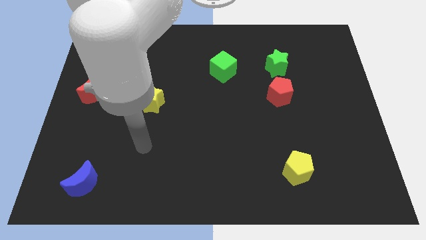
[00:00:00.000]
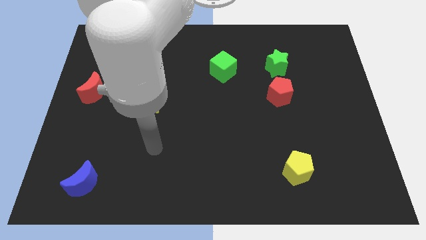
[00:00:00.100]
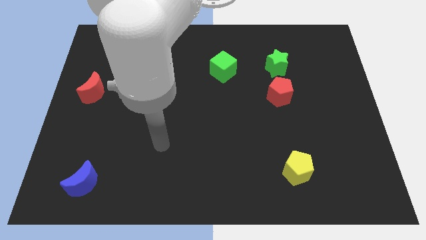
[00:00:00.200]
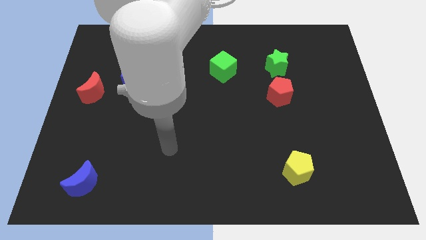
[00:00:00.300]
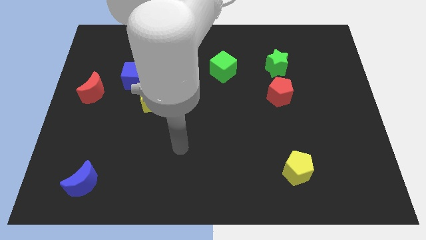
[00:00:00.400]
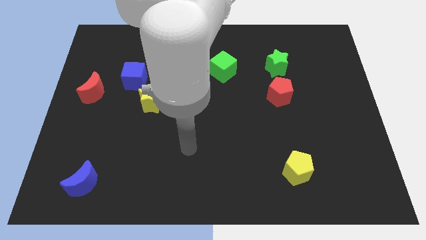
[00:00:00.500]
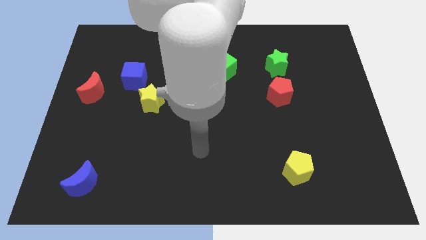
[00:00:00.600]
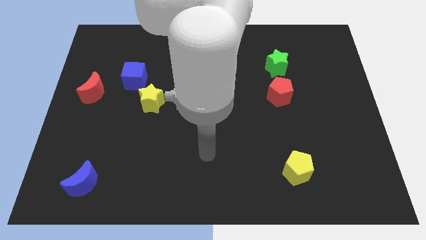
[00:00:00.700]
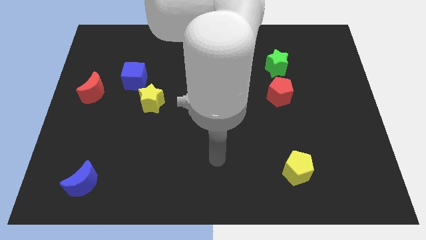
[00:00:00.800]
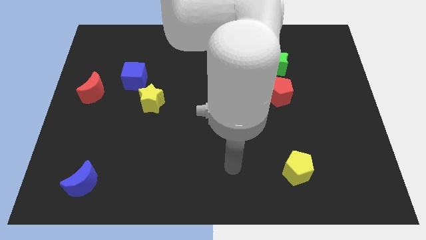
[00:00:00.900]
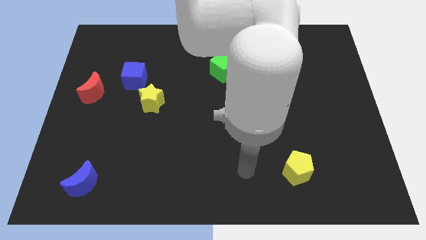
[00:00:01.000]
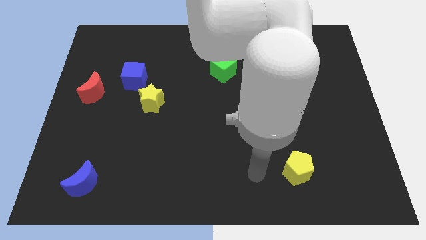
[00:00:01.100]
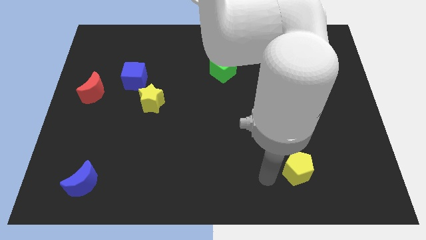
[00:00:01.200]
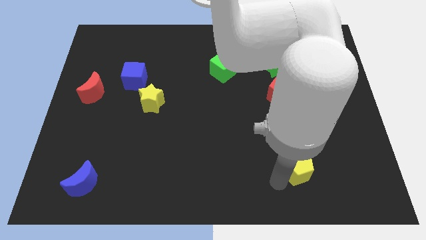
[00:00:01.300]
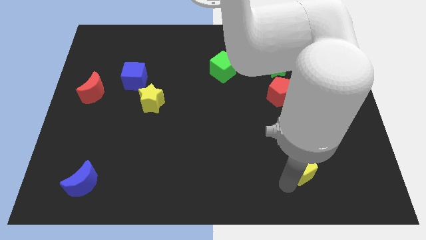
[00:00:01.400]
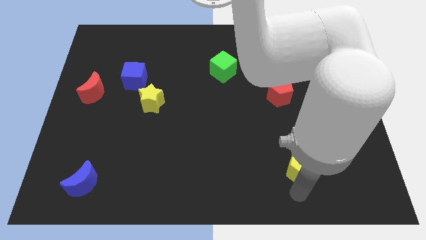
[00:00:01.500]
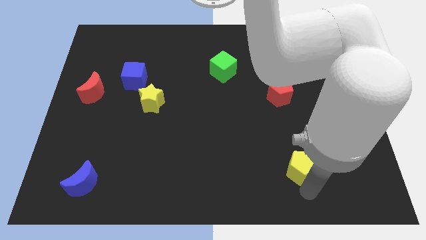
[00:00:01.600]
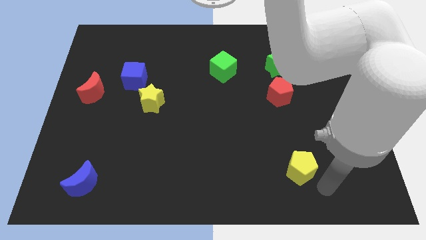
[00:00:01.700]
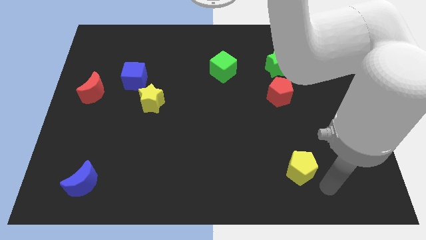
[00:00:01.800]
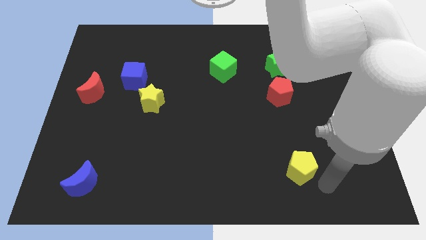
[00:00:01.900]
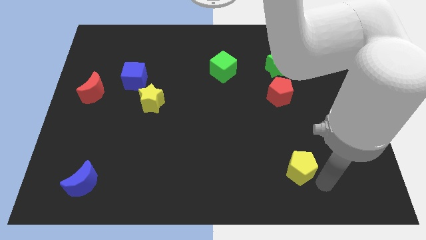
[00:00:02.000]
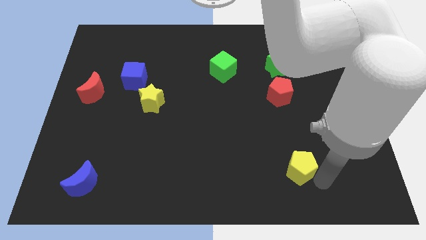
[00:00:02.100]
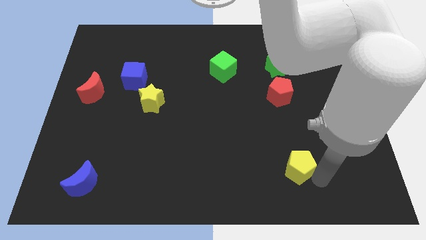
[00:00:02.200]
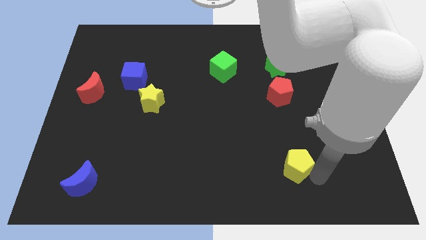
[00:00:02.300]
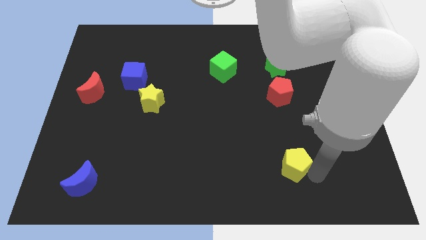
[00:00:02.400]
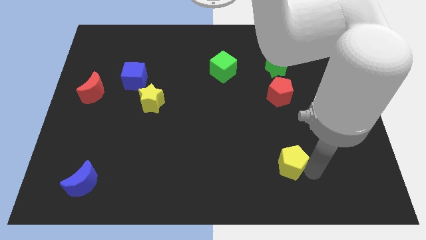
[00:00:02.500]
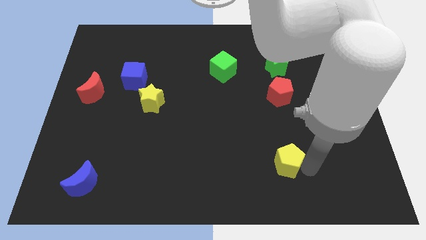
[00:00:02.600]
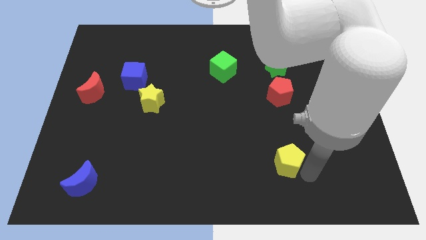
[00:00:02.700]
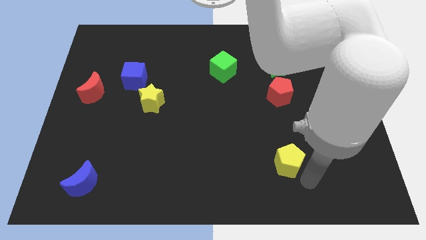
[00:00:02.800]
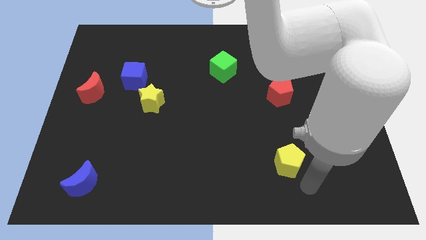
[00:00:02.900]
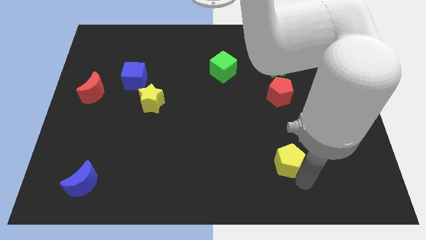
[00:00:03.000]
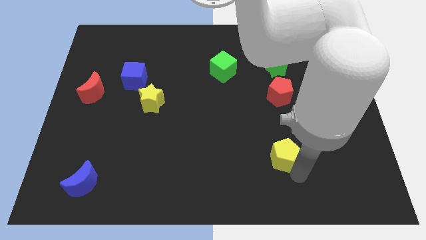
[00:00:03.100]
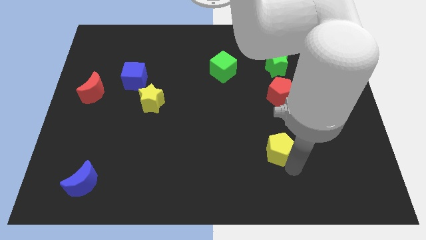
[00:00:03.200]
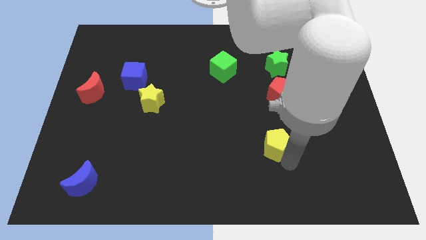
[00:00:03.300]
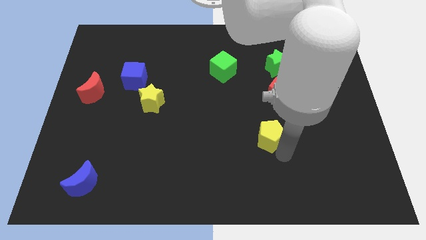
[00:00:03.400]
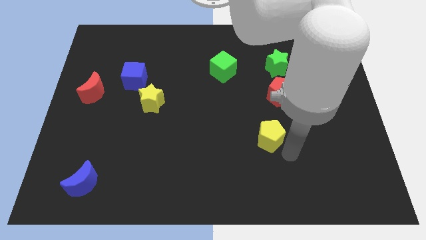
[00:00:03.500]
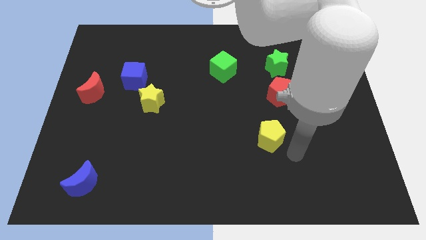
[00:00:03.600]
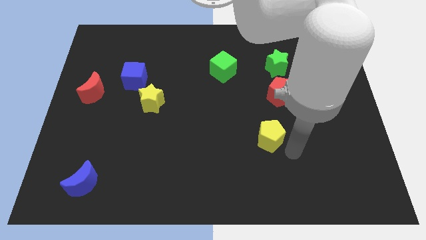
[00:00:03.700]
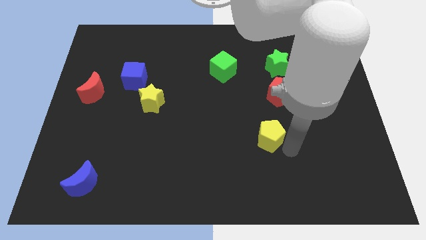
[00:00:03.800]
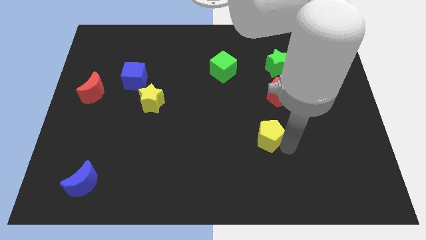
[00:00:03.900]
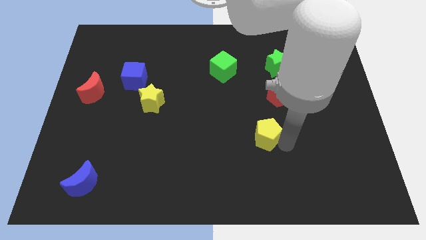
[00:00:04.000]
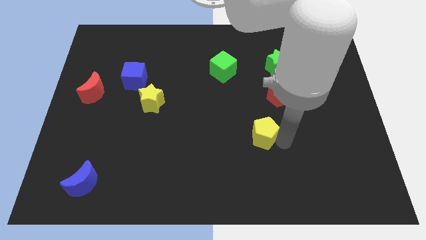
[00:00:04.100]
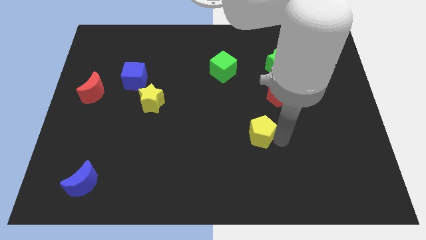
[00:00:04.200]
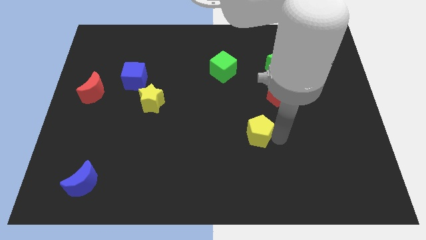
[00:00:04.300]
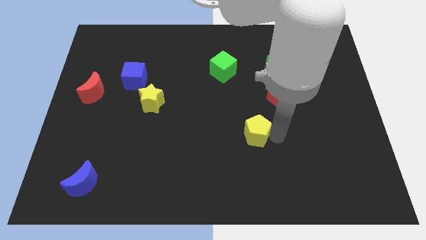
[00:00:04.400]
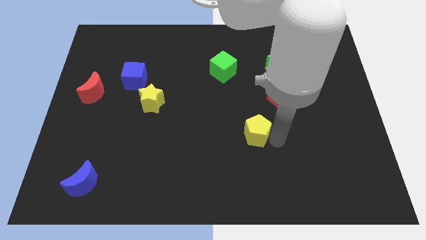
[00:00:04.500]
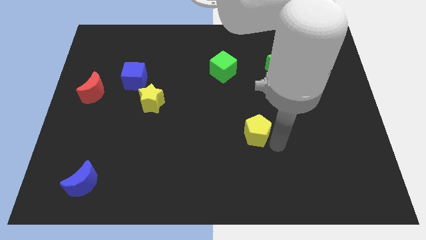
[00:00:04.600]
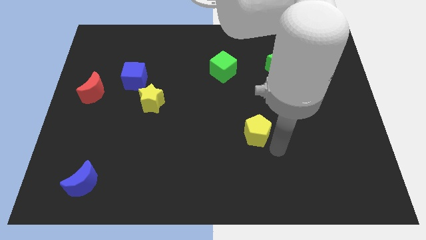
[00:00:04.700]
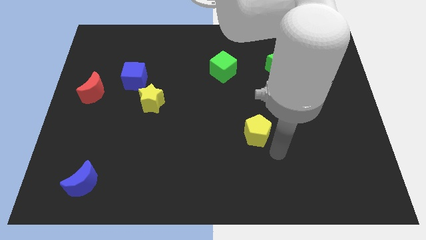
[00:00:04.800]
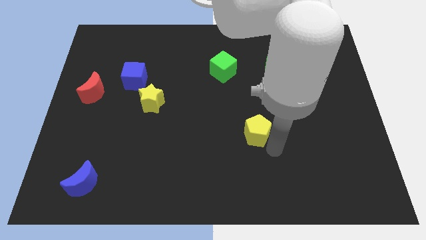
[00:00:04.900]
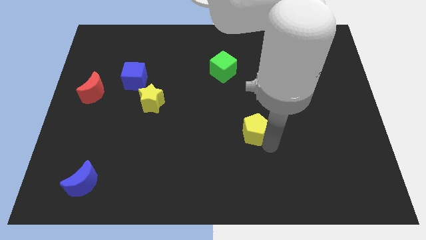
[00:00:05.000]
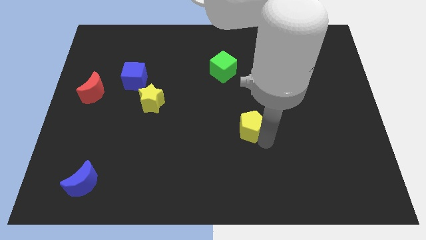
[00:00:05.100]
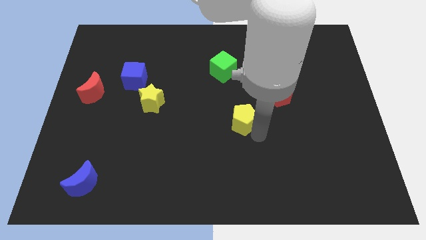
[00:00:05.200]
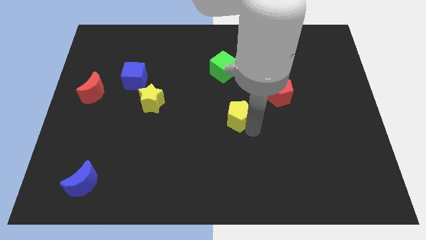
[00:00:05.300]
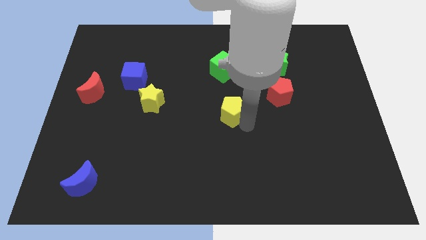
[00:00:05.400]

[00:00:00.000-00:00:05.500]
push the yellow pentagon below the green cube

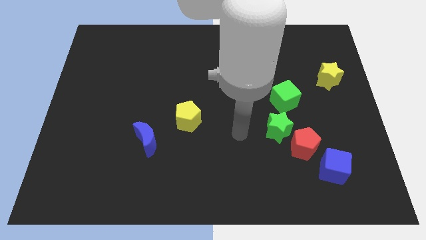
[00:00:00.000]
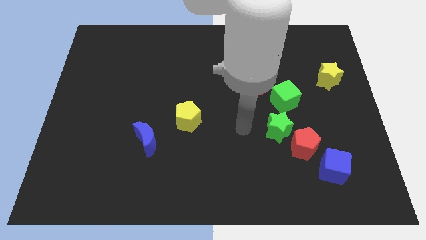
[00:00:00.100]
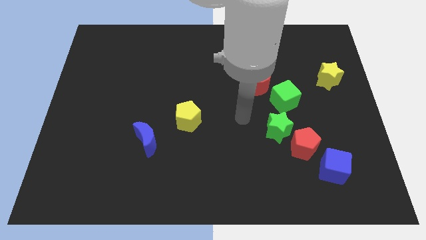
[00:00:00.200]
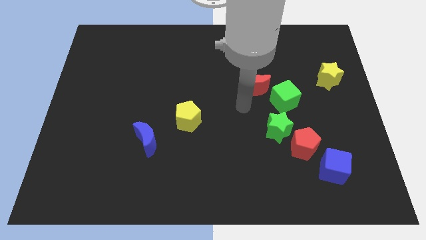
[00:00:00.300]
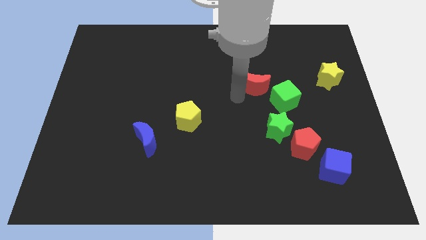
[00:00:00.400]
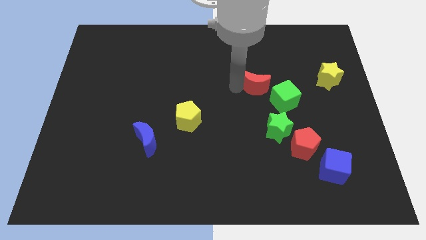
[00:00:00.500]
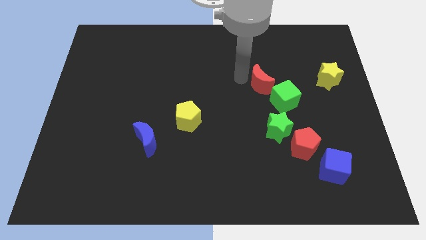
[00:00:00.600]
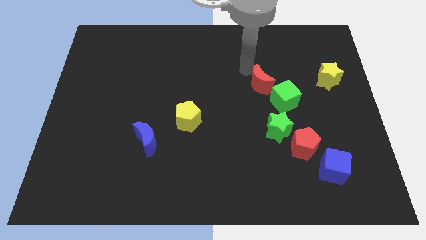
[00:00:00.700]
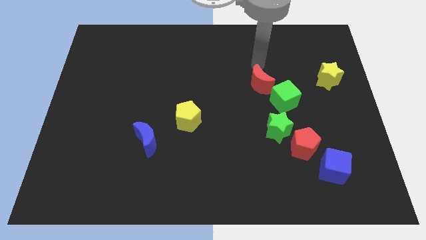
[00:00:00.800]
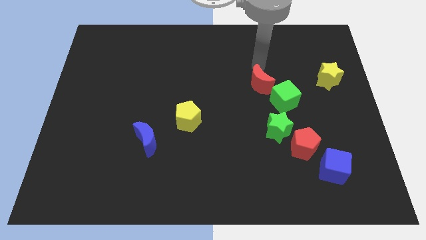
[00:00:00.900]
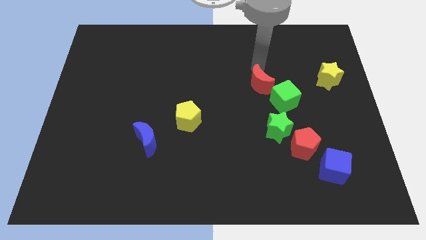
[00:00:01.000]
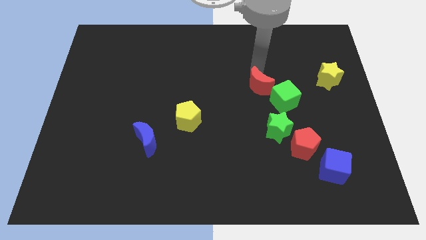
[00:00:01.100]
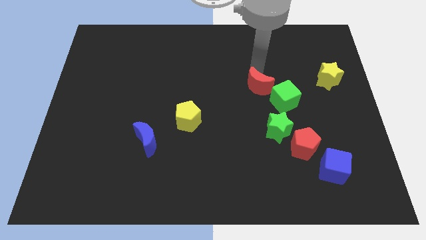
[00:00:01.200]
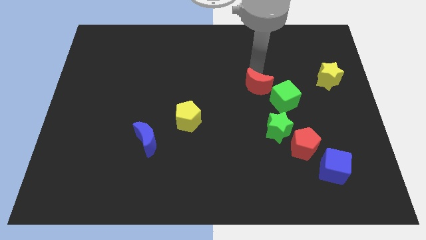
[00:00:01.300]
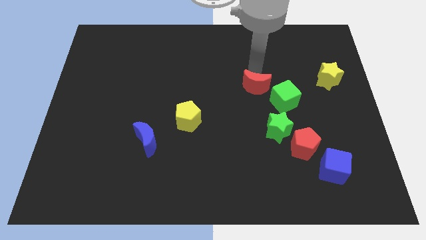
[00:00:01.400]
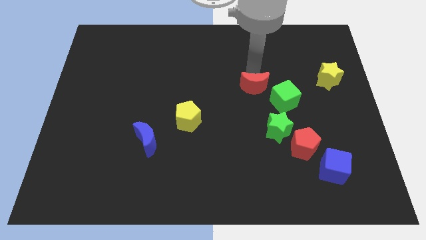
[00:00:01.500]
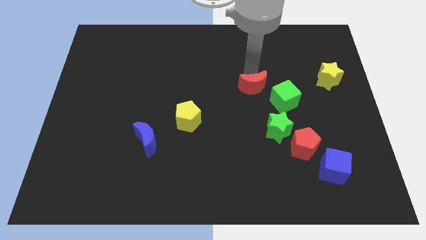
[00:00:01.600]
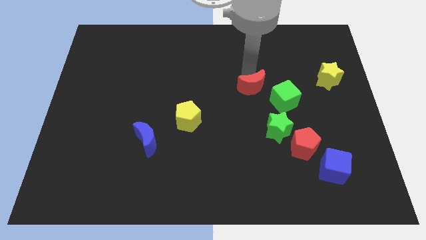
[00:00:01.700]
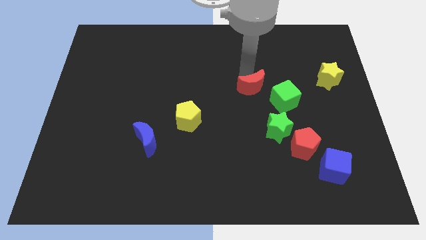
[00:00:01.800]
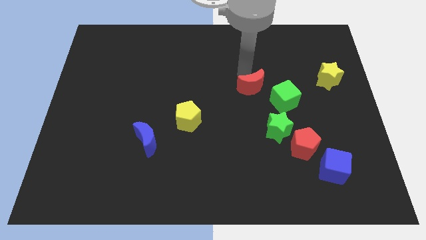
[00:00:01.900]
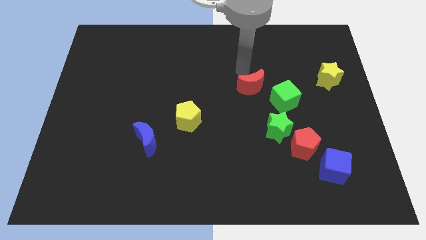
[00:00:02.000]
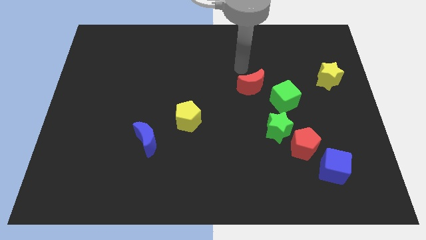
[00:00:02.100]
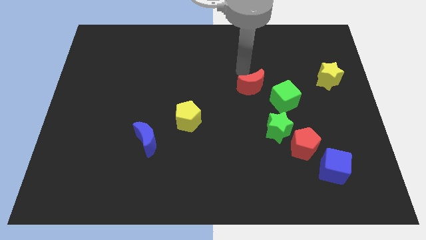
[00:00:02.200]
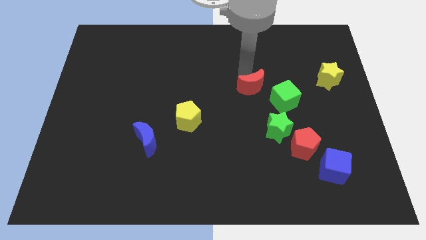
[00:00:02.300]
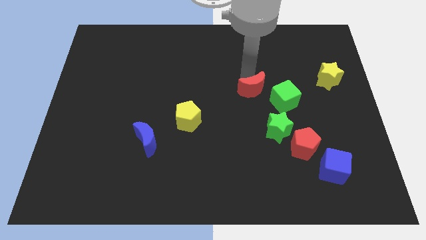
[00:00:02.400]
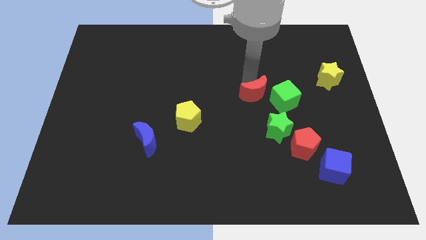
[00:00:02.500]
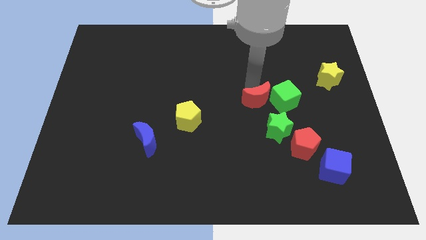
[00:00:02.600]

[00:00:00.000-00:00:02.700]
put the red moon to the bottom left side of the green cube

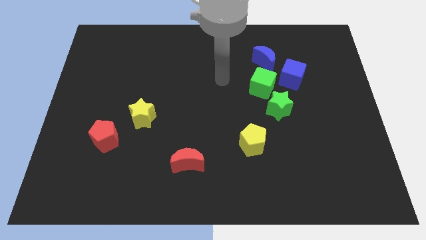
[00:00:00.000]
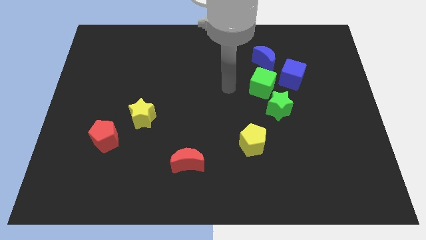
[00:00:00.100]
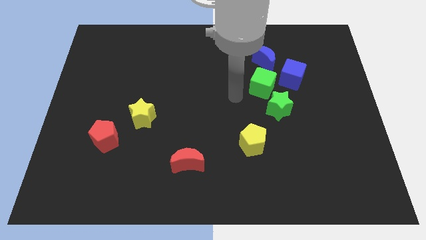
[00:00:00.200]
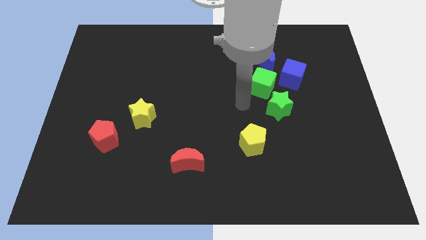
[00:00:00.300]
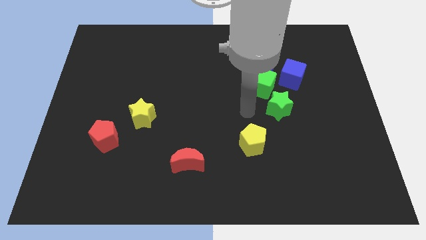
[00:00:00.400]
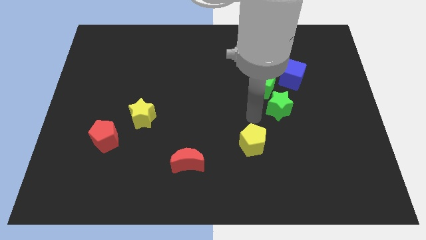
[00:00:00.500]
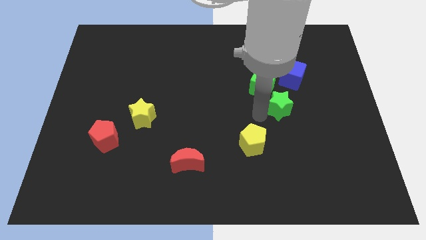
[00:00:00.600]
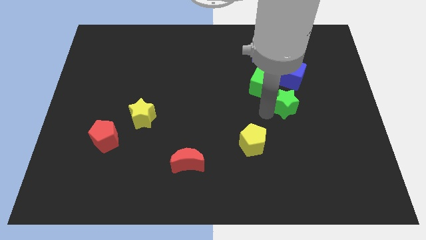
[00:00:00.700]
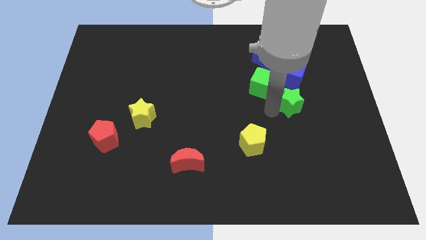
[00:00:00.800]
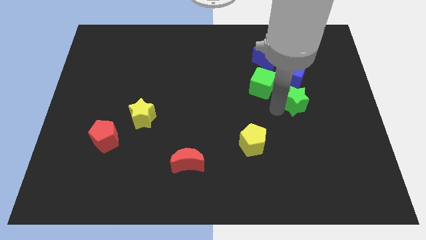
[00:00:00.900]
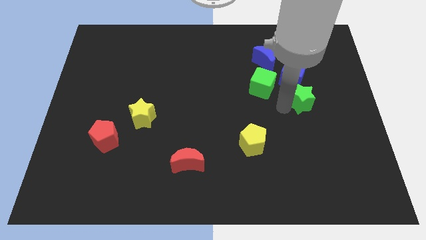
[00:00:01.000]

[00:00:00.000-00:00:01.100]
slide the green star to the bottom right of the blue cube
